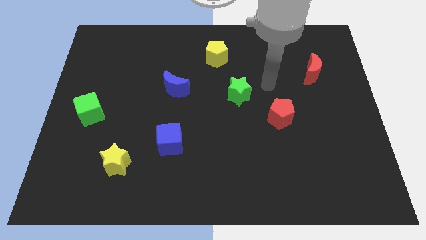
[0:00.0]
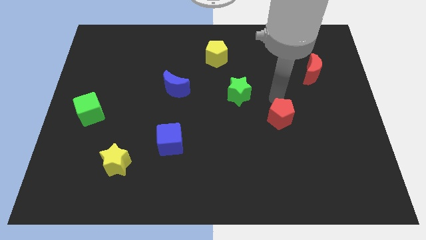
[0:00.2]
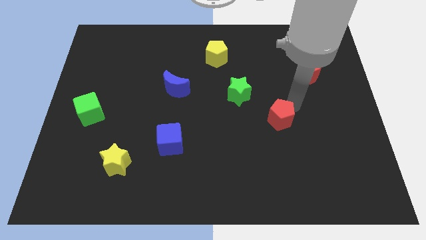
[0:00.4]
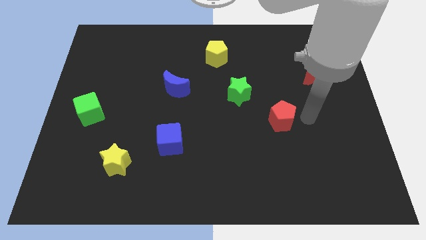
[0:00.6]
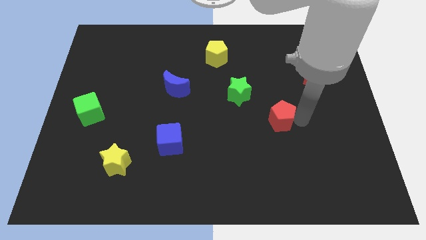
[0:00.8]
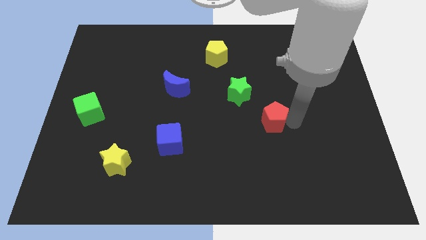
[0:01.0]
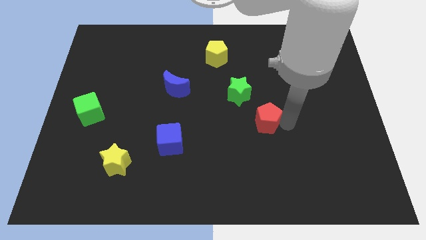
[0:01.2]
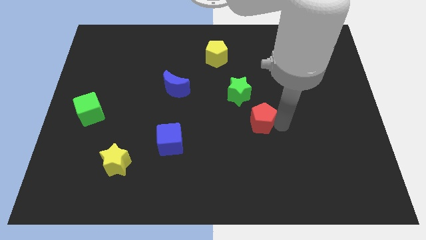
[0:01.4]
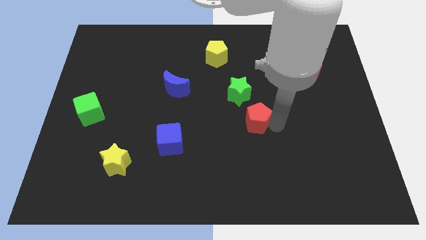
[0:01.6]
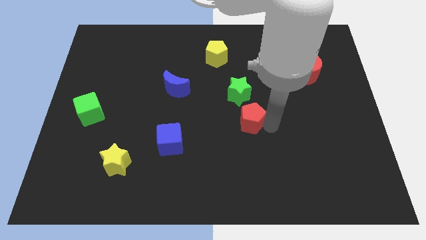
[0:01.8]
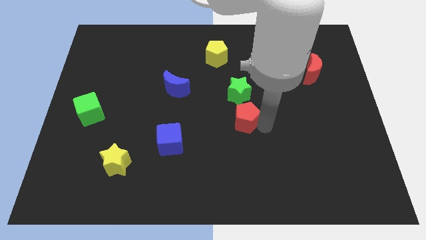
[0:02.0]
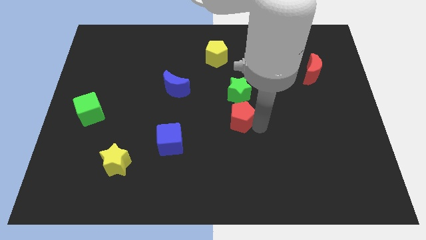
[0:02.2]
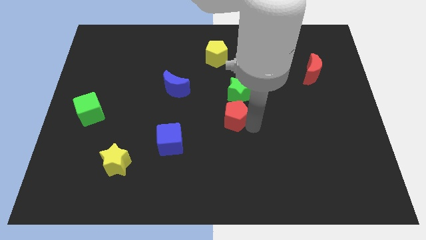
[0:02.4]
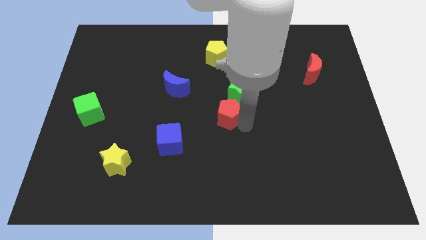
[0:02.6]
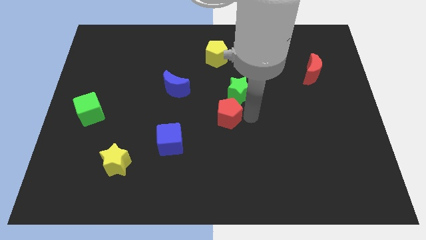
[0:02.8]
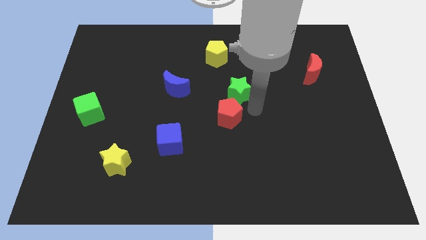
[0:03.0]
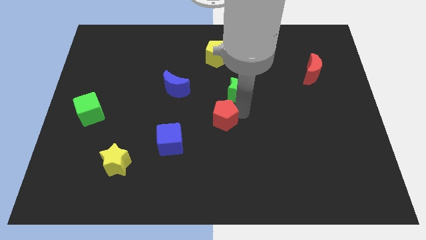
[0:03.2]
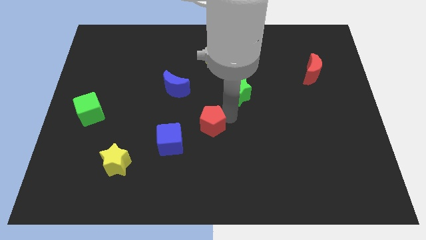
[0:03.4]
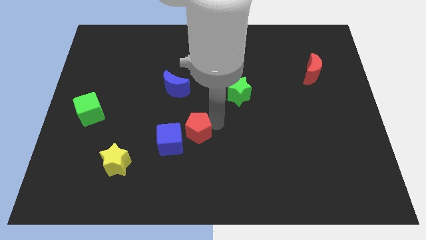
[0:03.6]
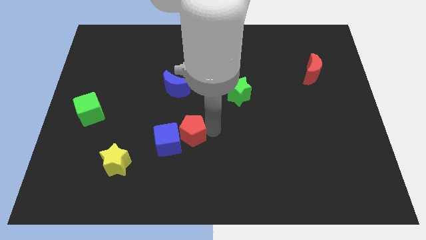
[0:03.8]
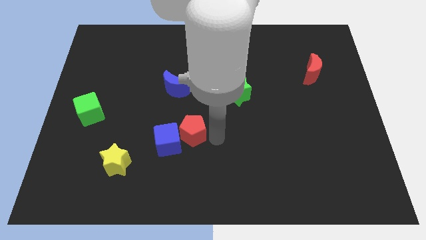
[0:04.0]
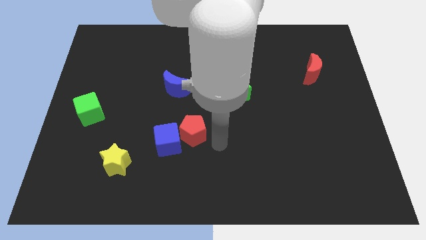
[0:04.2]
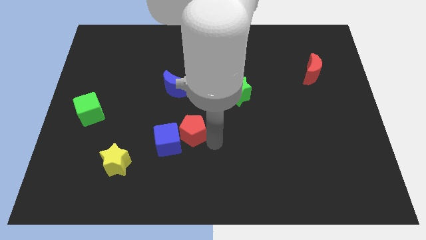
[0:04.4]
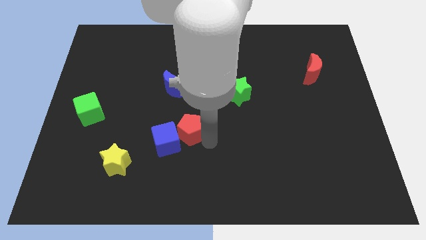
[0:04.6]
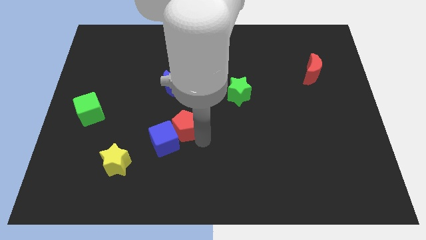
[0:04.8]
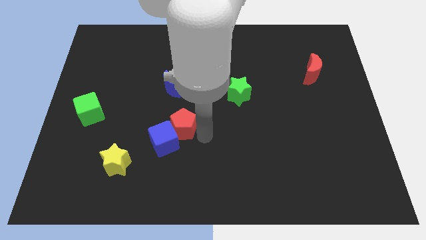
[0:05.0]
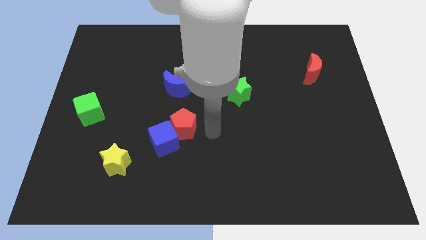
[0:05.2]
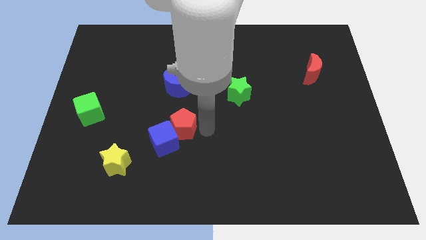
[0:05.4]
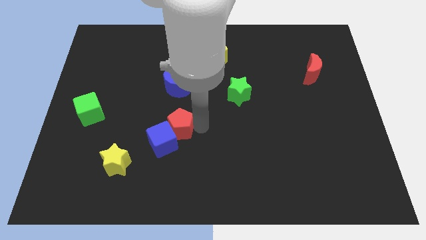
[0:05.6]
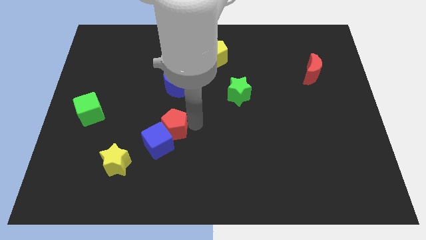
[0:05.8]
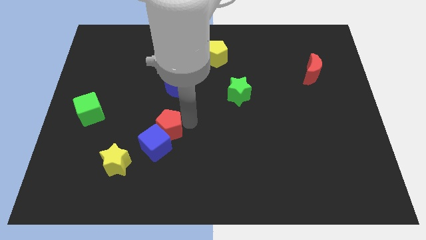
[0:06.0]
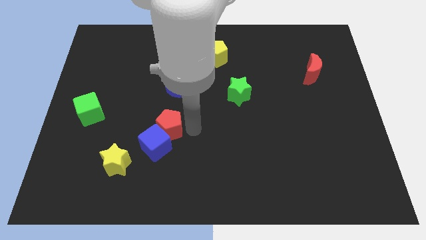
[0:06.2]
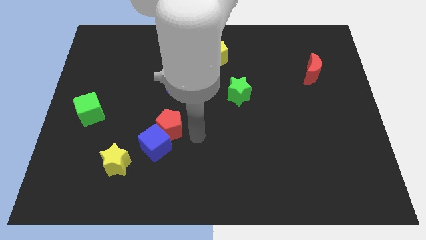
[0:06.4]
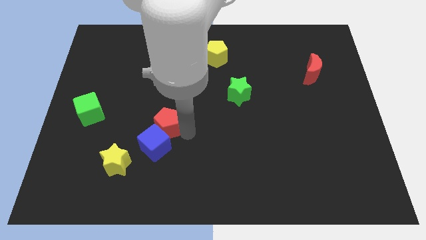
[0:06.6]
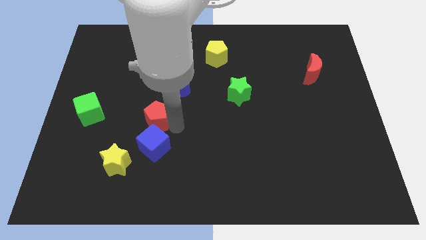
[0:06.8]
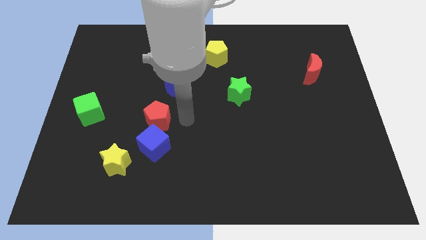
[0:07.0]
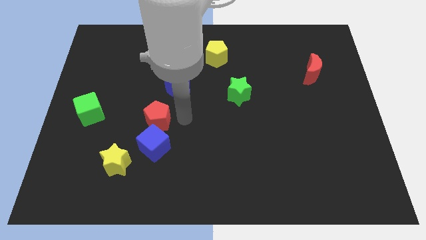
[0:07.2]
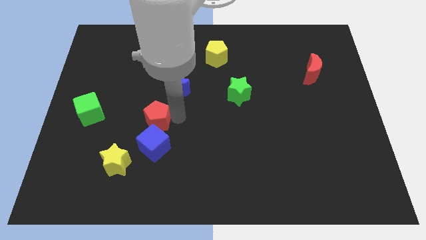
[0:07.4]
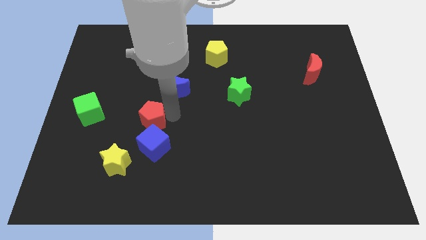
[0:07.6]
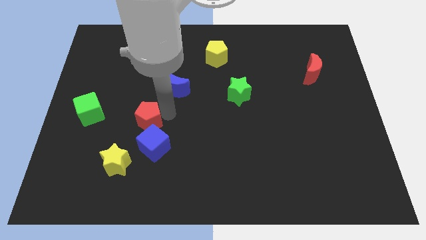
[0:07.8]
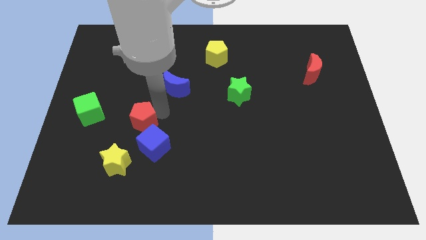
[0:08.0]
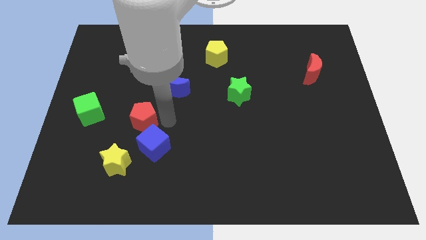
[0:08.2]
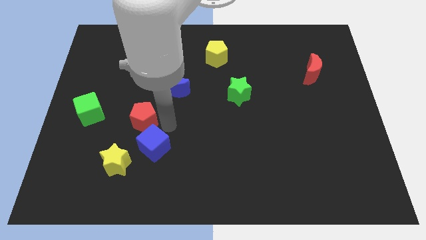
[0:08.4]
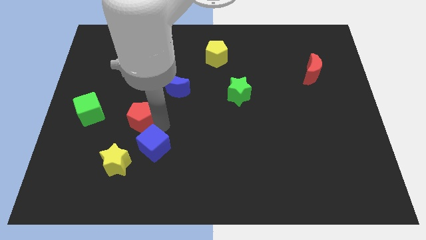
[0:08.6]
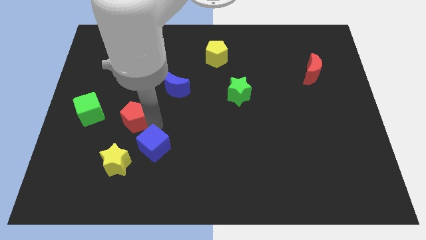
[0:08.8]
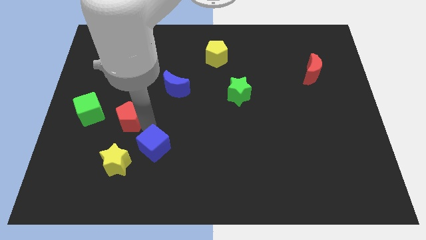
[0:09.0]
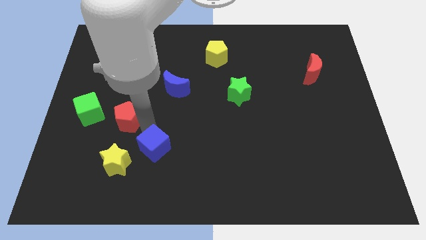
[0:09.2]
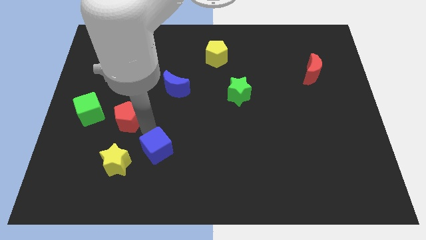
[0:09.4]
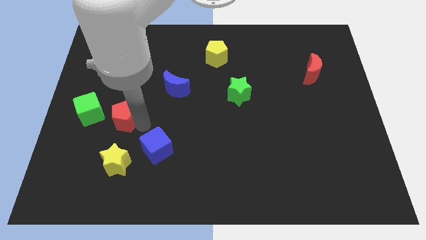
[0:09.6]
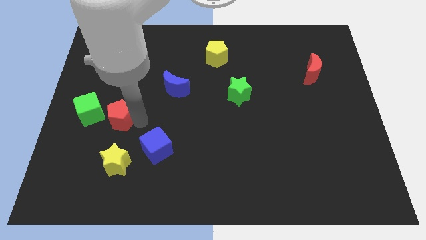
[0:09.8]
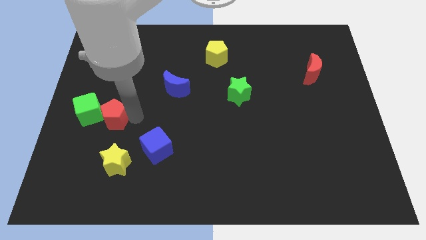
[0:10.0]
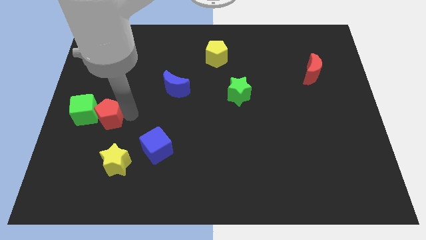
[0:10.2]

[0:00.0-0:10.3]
move the red pentagon next to the green cube

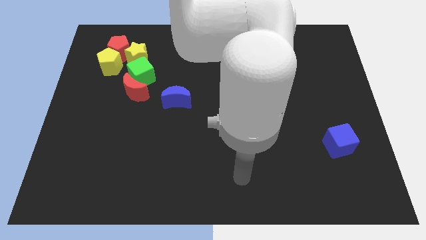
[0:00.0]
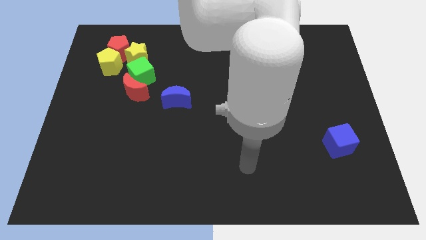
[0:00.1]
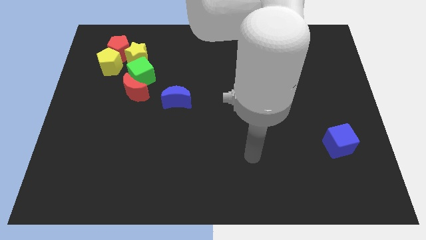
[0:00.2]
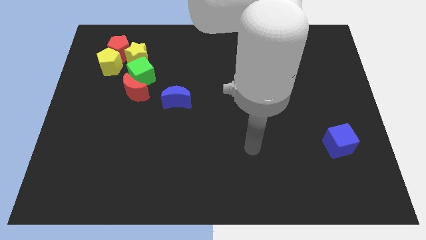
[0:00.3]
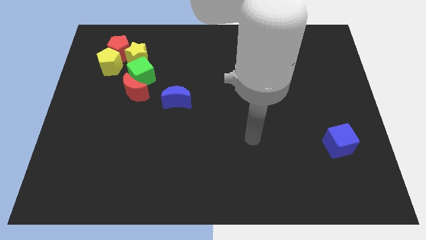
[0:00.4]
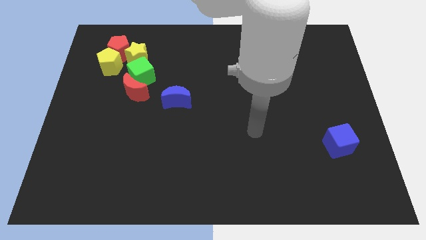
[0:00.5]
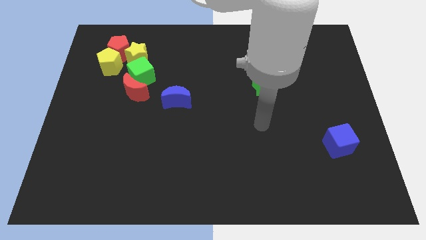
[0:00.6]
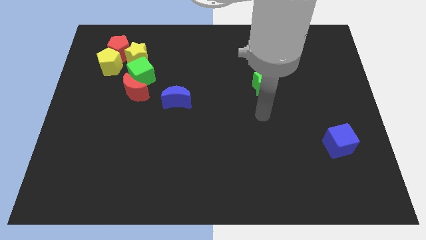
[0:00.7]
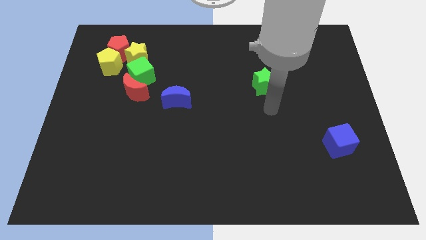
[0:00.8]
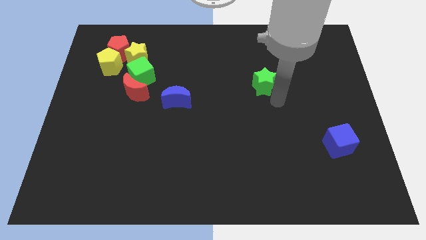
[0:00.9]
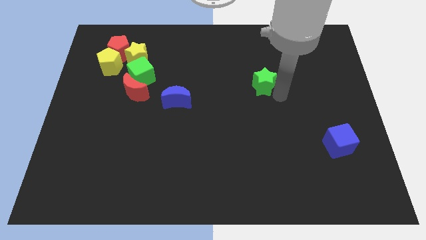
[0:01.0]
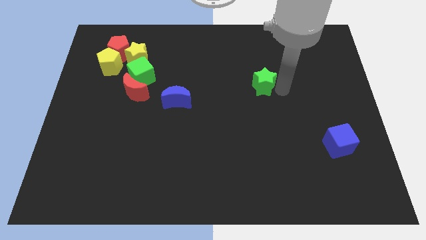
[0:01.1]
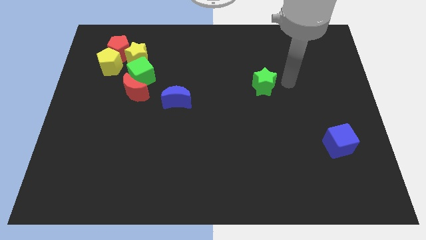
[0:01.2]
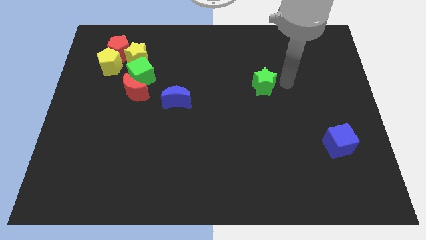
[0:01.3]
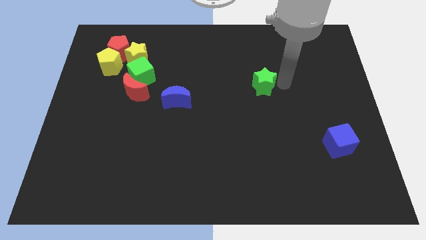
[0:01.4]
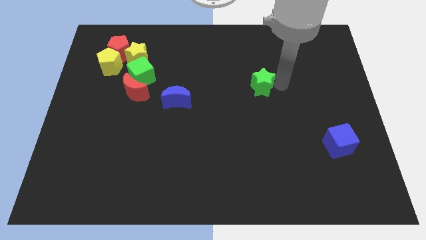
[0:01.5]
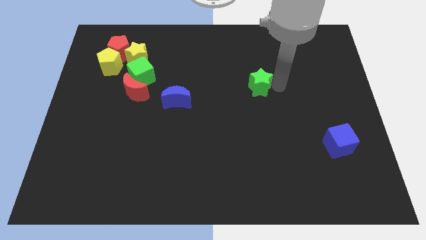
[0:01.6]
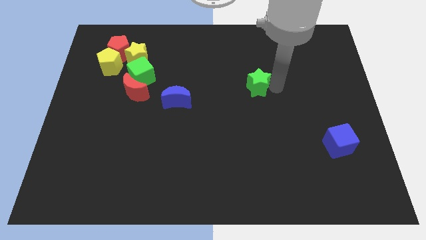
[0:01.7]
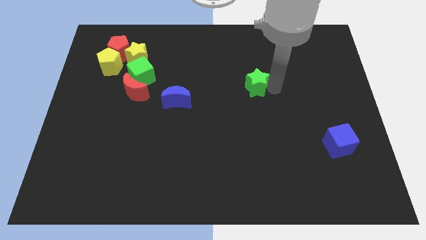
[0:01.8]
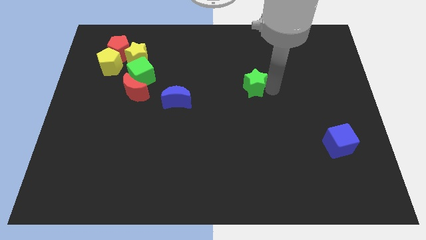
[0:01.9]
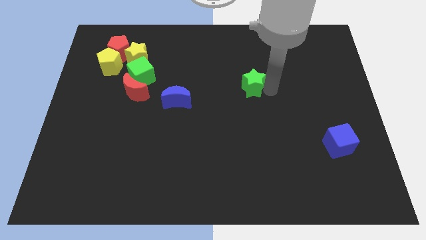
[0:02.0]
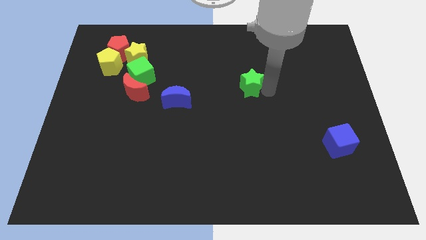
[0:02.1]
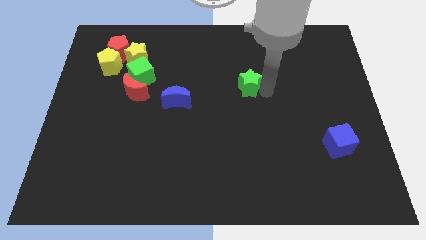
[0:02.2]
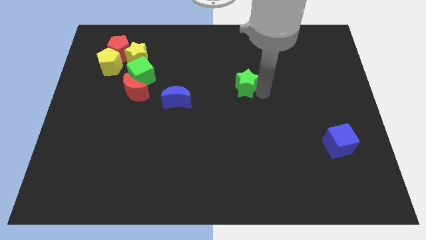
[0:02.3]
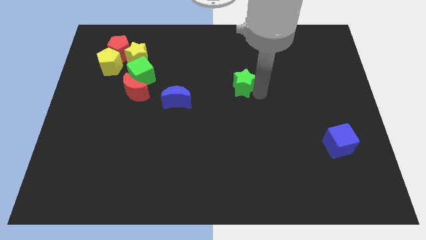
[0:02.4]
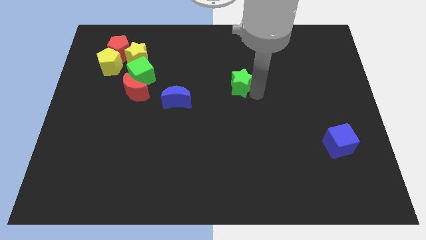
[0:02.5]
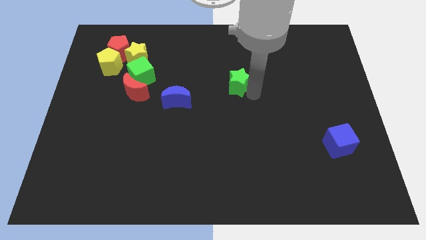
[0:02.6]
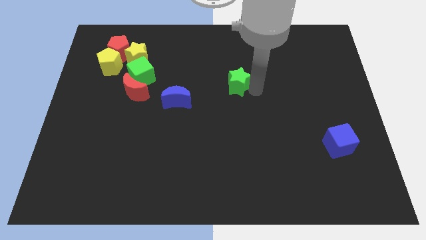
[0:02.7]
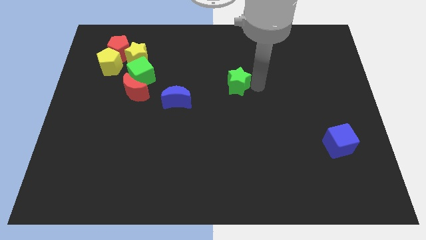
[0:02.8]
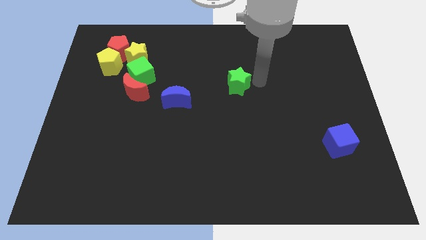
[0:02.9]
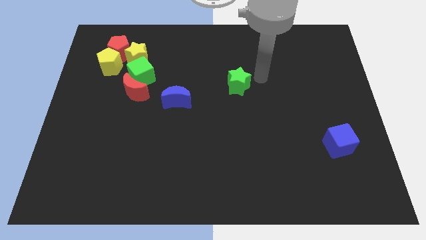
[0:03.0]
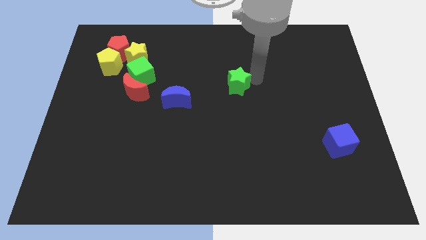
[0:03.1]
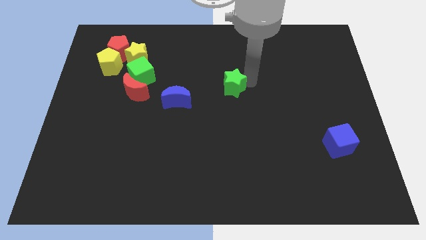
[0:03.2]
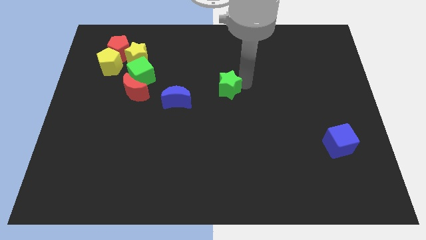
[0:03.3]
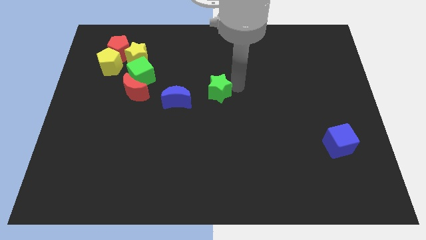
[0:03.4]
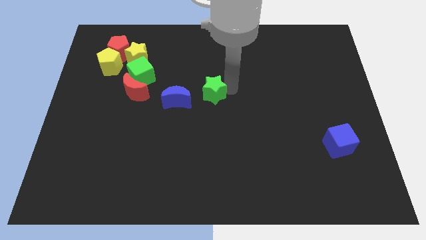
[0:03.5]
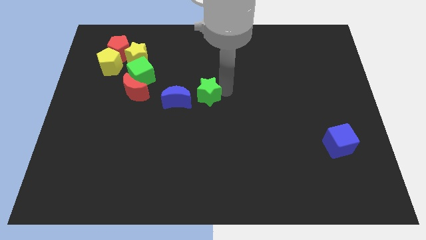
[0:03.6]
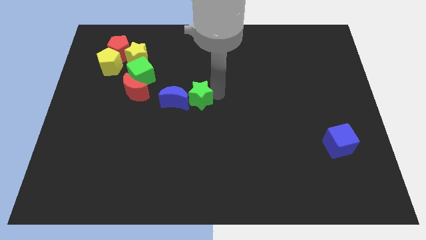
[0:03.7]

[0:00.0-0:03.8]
move the green star towards the blue moon
